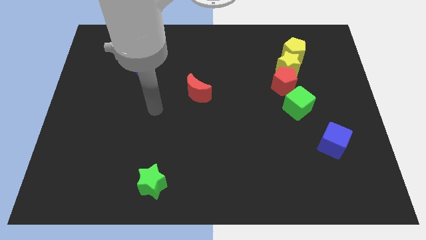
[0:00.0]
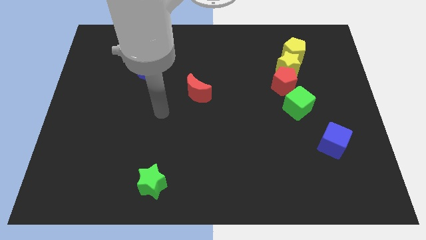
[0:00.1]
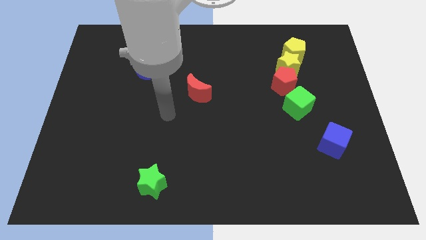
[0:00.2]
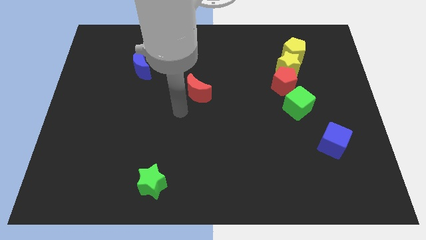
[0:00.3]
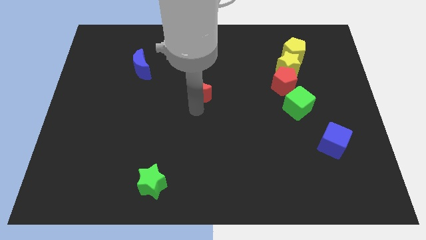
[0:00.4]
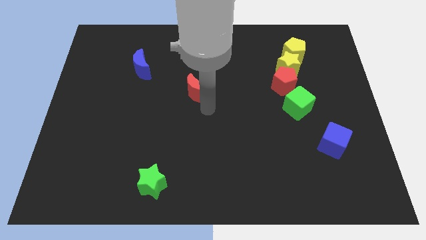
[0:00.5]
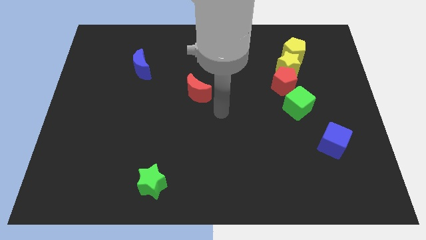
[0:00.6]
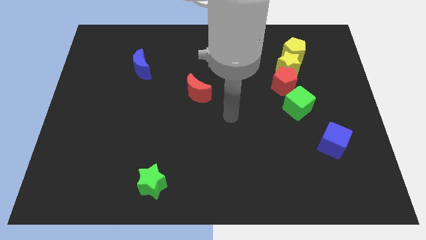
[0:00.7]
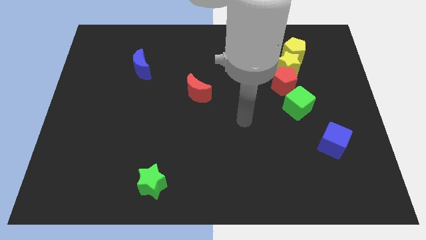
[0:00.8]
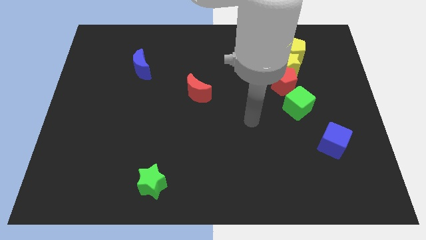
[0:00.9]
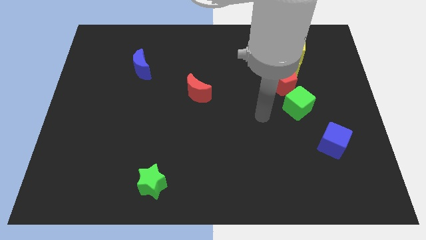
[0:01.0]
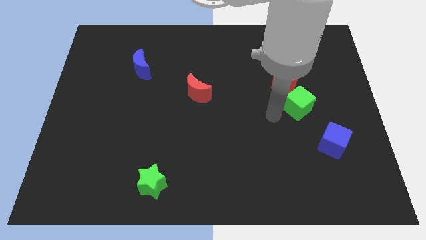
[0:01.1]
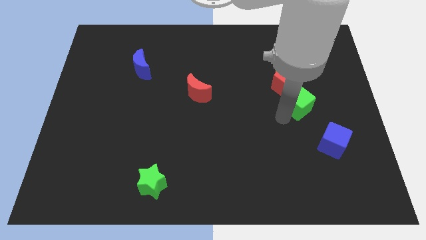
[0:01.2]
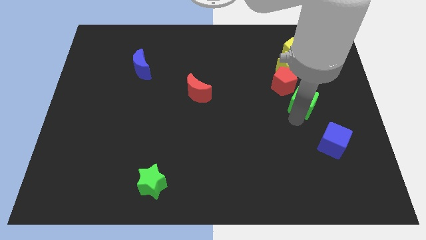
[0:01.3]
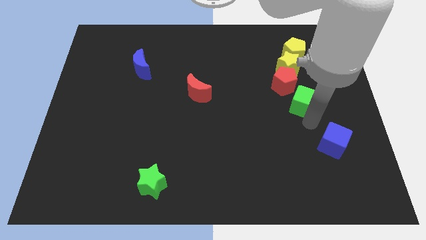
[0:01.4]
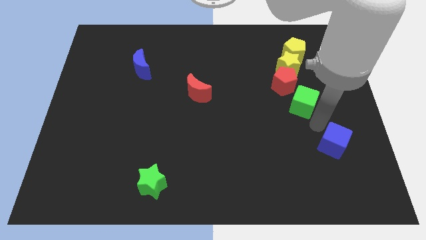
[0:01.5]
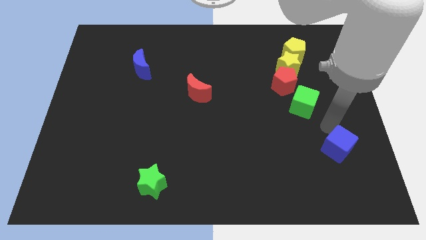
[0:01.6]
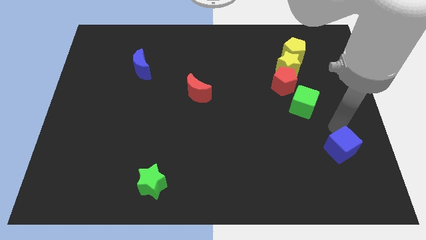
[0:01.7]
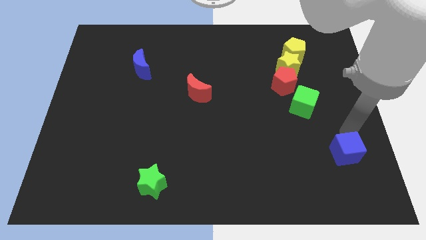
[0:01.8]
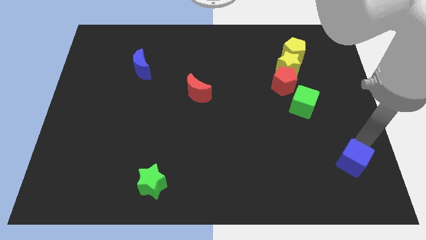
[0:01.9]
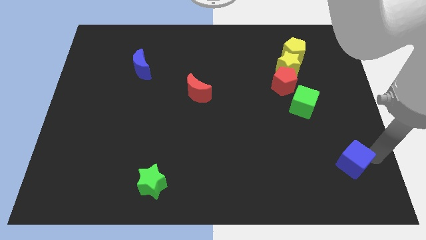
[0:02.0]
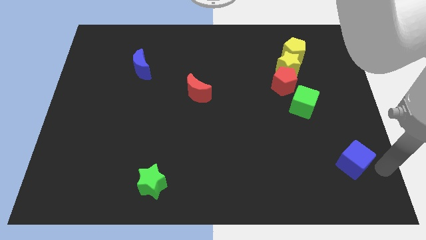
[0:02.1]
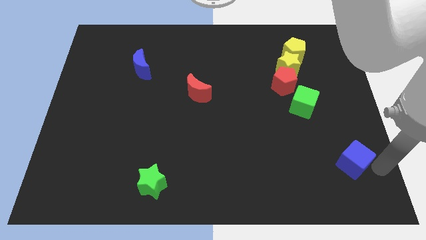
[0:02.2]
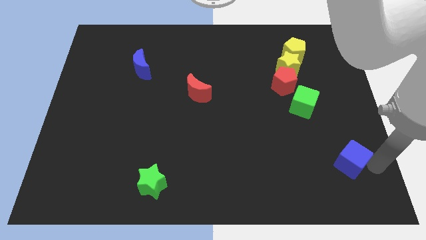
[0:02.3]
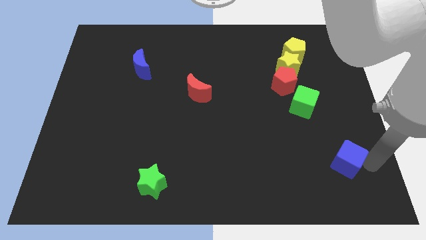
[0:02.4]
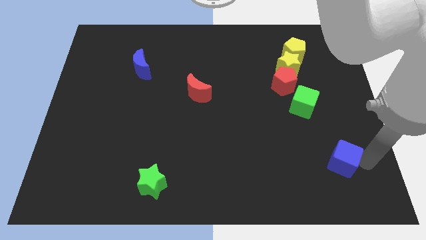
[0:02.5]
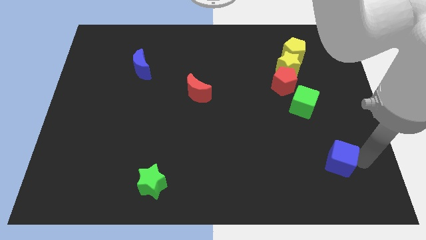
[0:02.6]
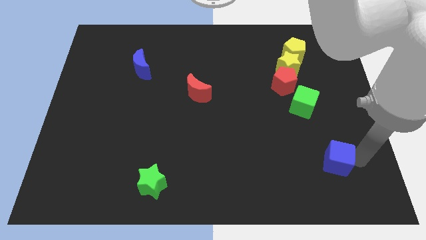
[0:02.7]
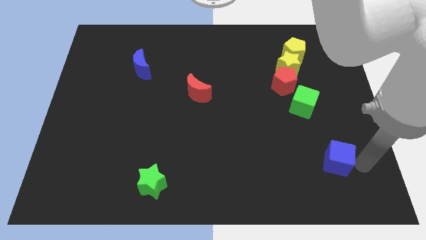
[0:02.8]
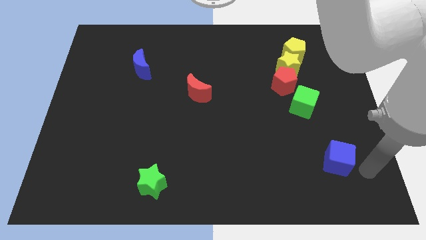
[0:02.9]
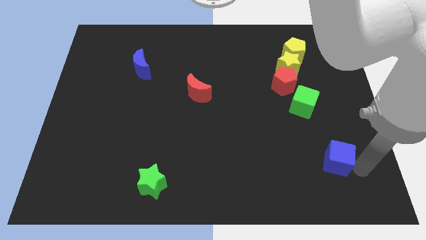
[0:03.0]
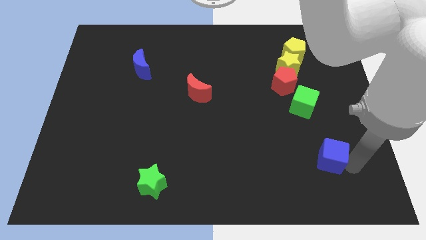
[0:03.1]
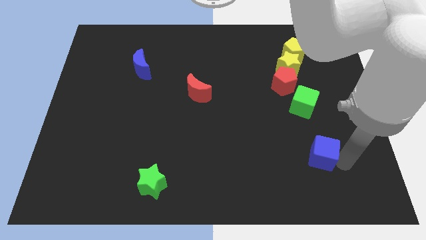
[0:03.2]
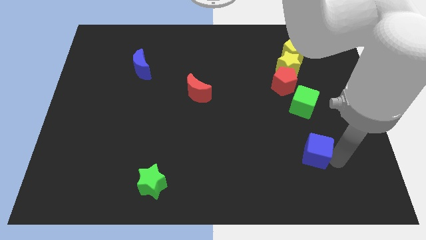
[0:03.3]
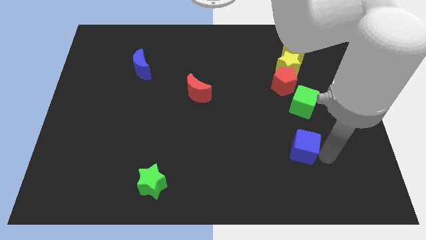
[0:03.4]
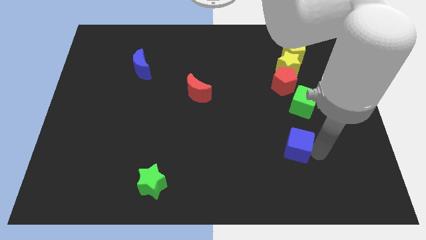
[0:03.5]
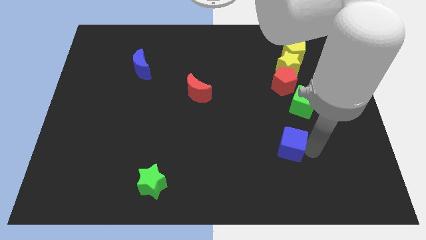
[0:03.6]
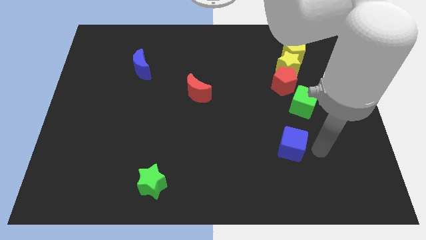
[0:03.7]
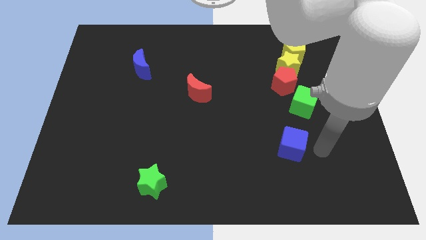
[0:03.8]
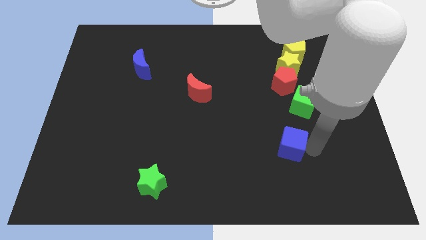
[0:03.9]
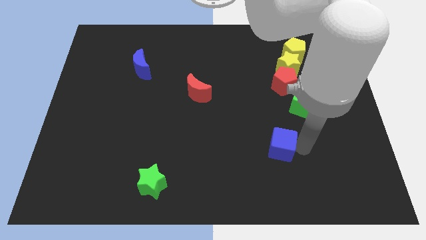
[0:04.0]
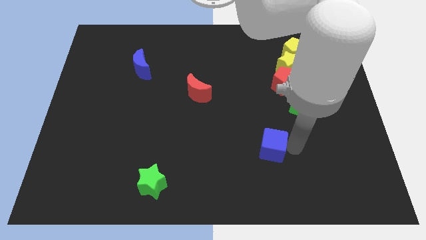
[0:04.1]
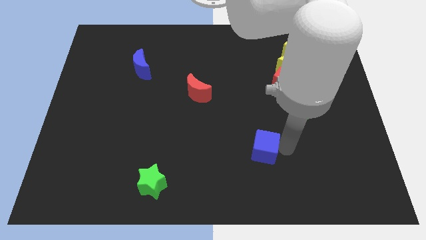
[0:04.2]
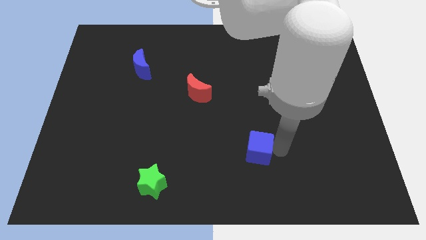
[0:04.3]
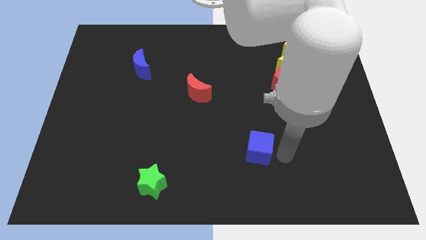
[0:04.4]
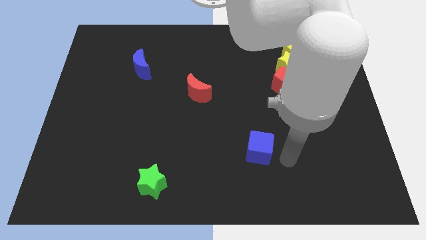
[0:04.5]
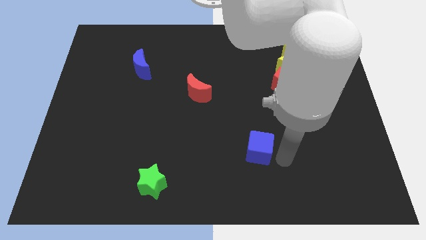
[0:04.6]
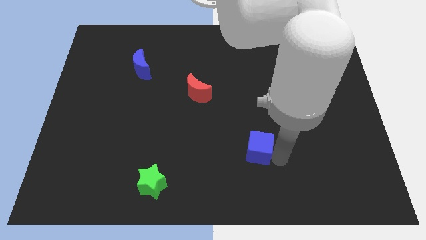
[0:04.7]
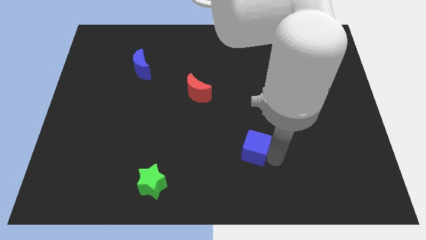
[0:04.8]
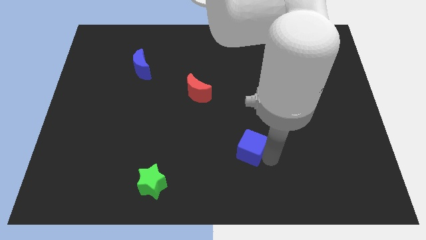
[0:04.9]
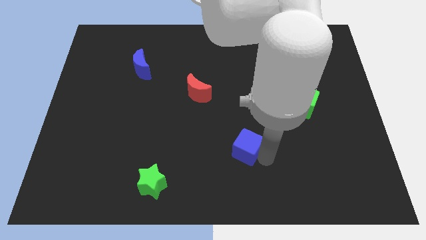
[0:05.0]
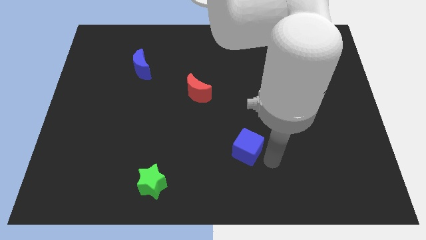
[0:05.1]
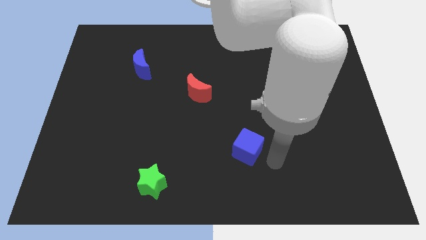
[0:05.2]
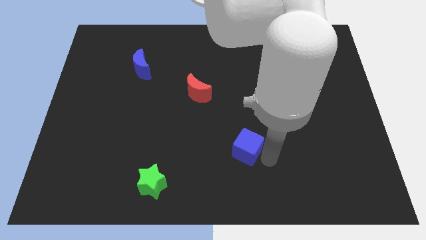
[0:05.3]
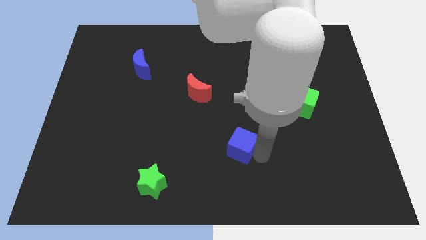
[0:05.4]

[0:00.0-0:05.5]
slide the blue cube to the left

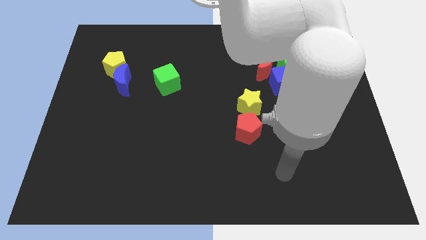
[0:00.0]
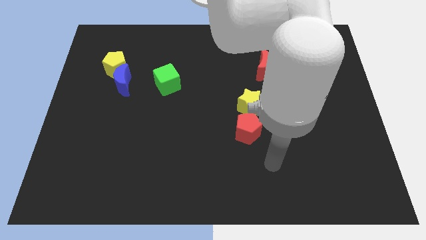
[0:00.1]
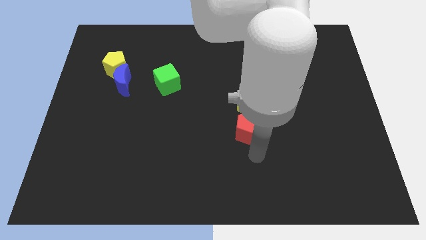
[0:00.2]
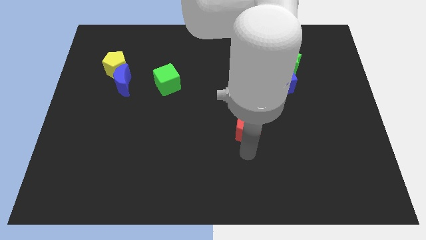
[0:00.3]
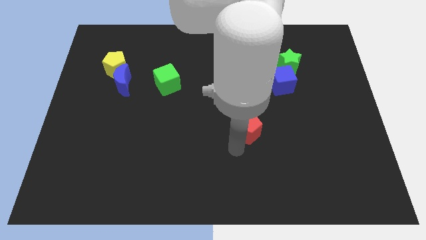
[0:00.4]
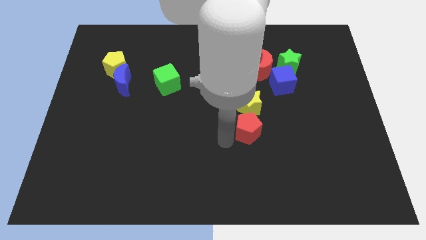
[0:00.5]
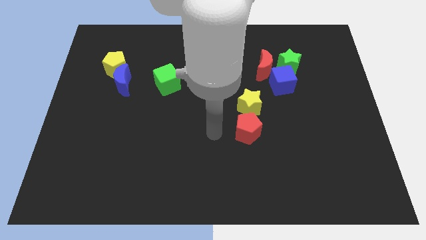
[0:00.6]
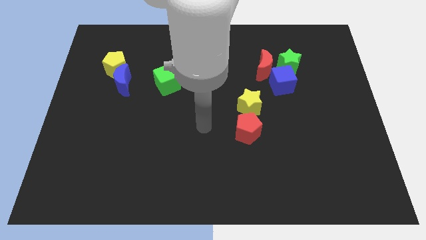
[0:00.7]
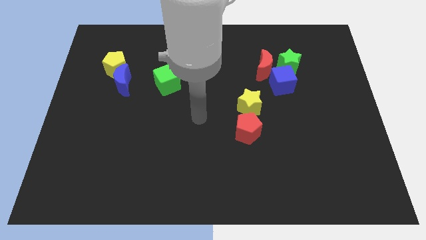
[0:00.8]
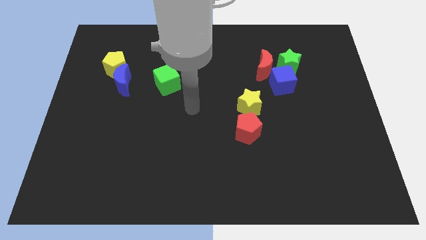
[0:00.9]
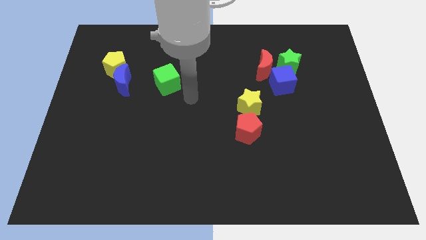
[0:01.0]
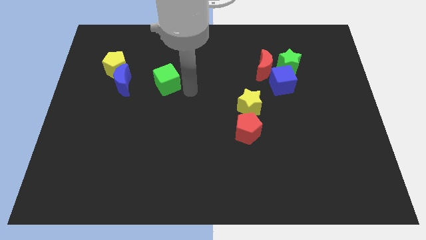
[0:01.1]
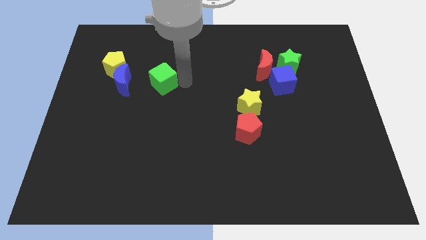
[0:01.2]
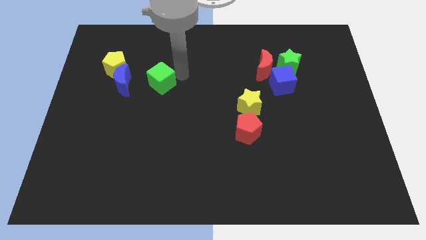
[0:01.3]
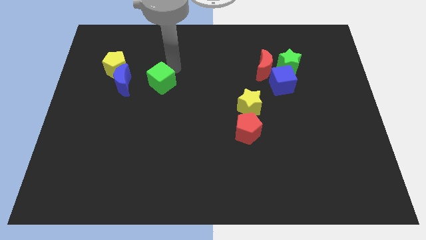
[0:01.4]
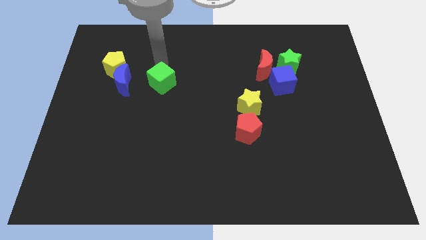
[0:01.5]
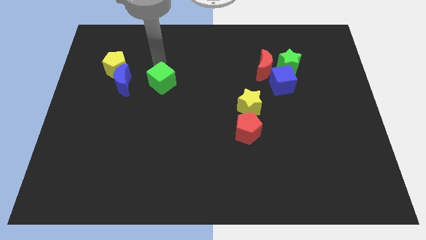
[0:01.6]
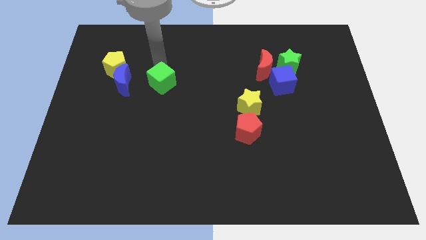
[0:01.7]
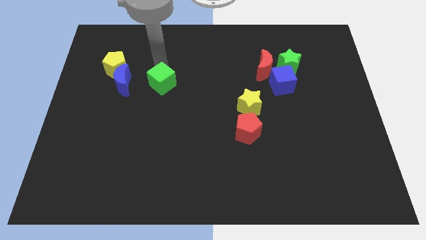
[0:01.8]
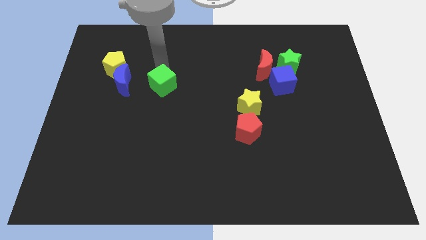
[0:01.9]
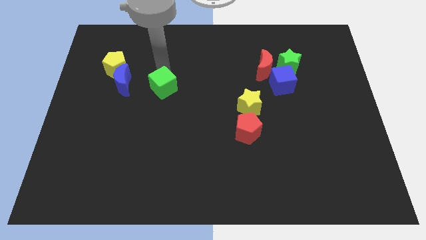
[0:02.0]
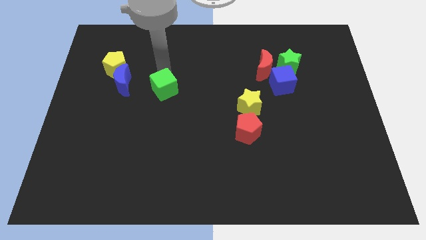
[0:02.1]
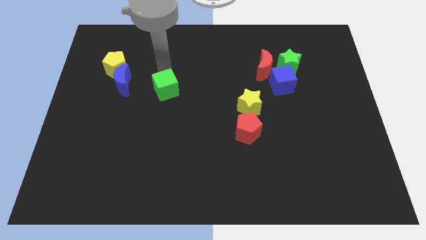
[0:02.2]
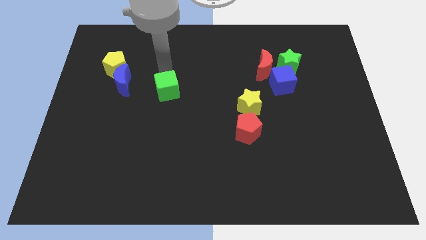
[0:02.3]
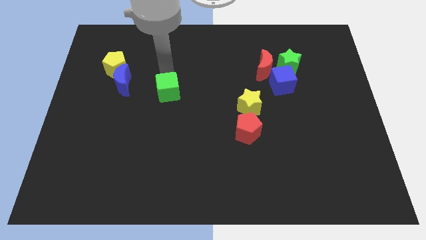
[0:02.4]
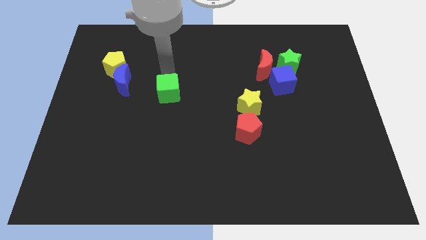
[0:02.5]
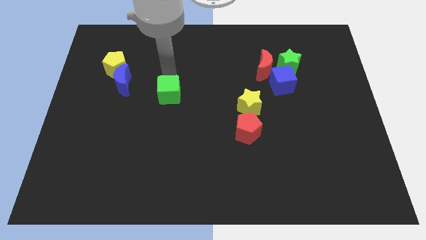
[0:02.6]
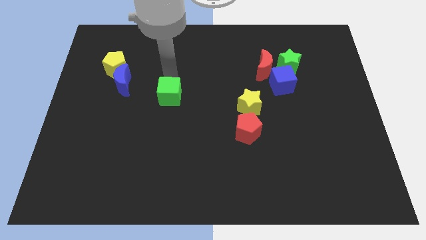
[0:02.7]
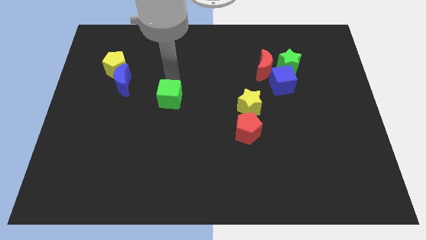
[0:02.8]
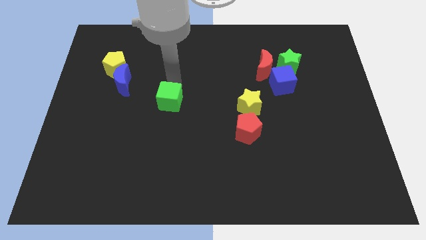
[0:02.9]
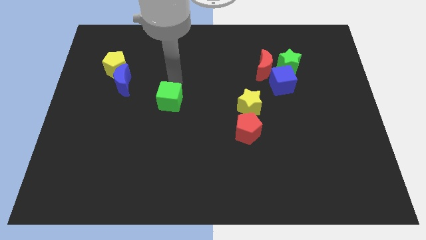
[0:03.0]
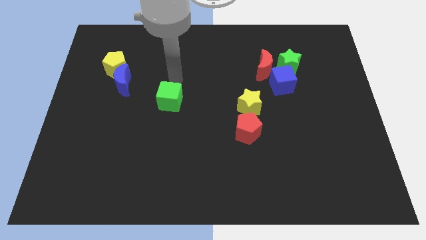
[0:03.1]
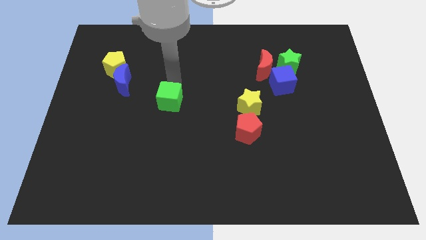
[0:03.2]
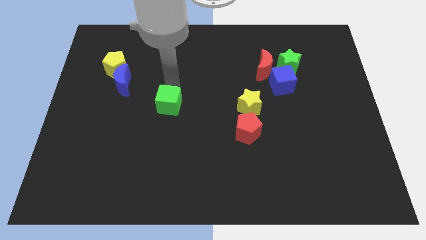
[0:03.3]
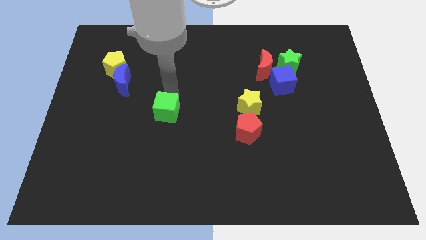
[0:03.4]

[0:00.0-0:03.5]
push the green cube downwards a bit
